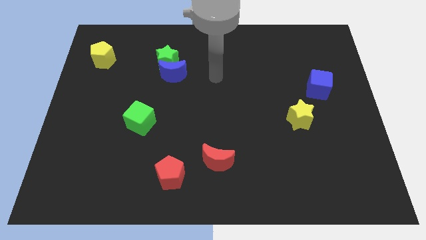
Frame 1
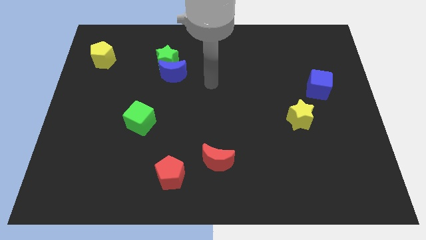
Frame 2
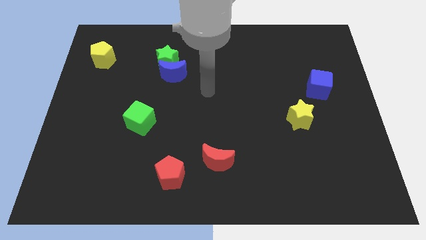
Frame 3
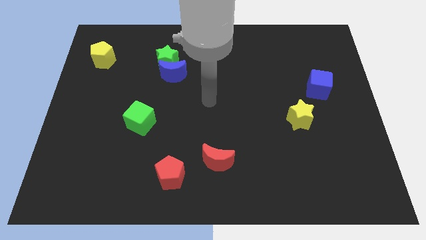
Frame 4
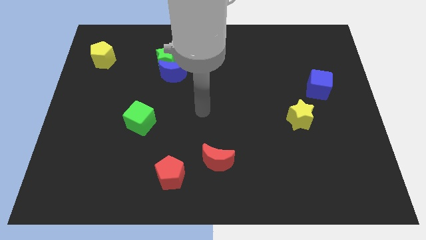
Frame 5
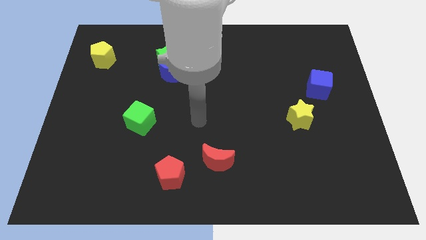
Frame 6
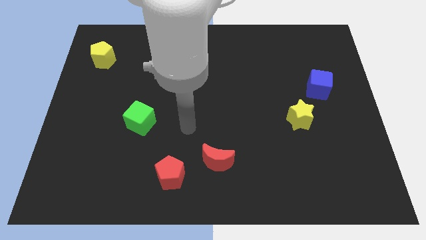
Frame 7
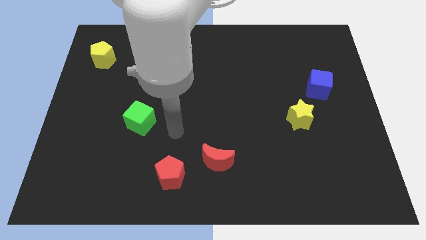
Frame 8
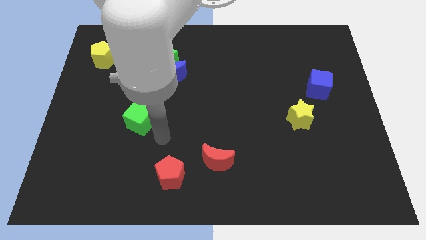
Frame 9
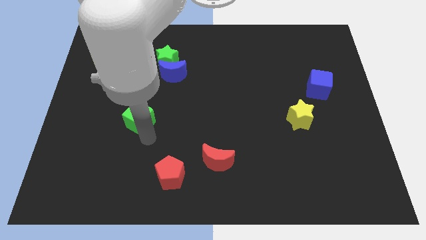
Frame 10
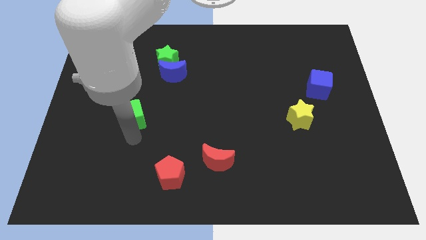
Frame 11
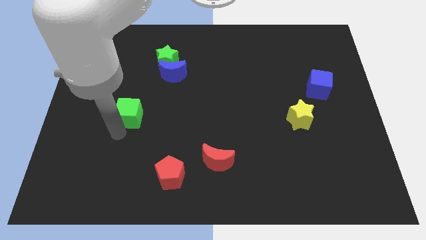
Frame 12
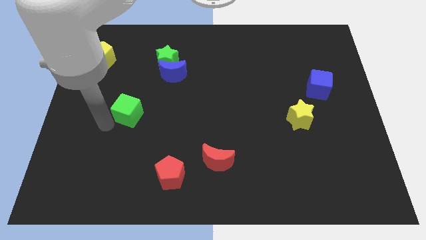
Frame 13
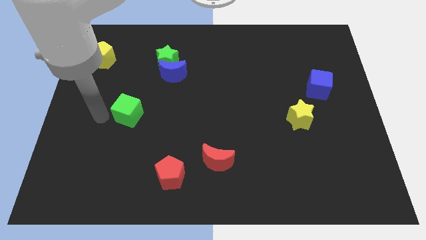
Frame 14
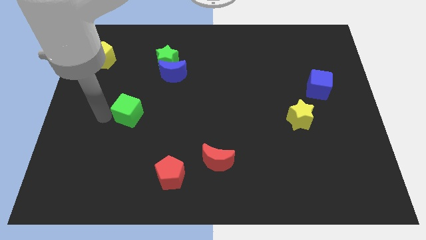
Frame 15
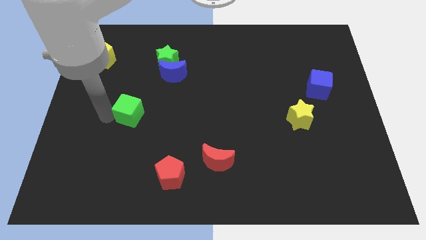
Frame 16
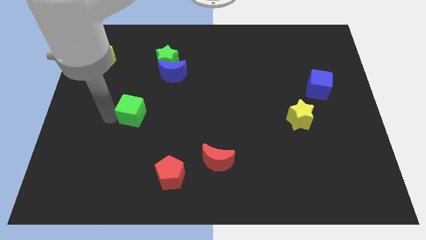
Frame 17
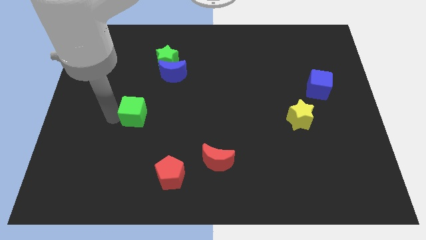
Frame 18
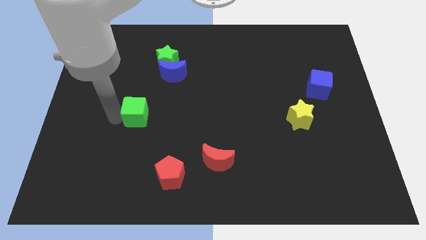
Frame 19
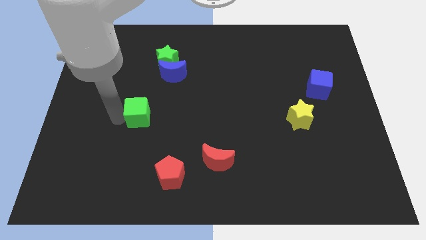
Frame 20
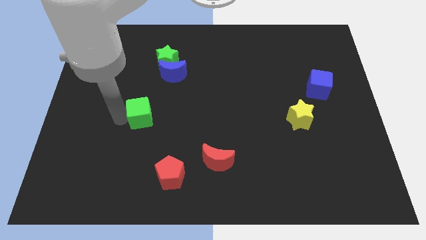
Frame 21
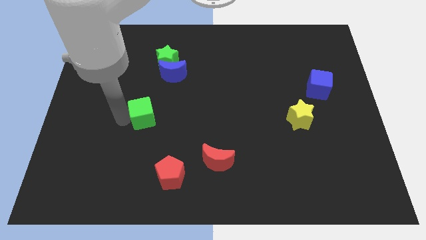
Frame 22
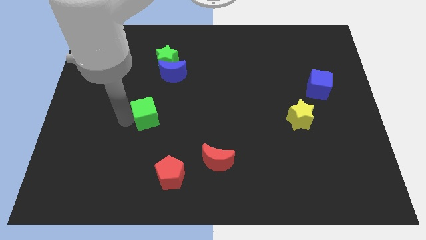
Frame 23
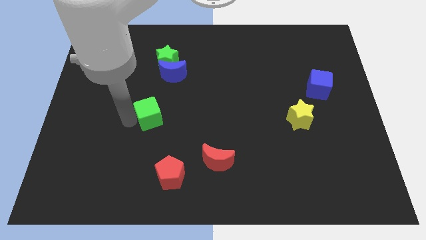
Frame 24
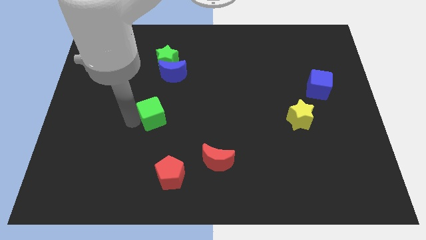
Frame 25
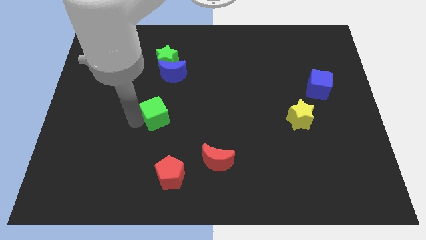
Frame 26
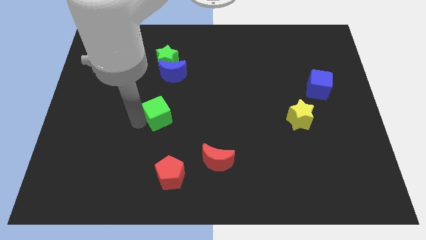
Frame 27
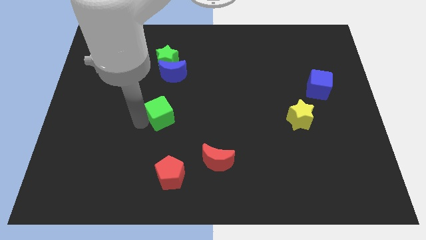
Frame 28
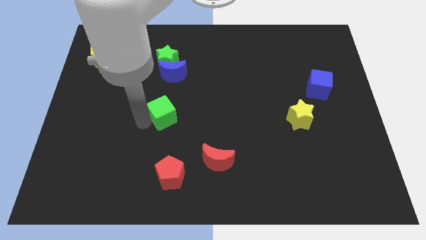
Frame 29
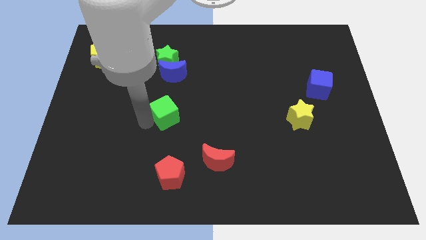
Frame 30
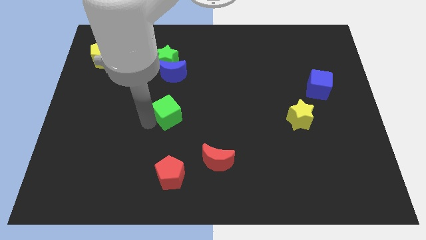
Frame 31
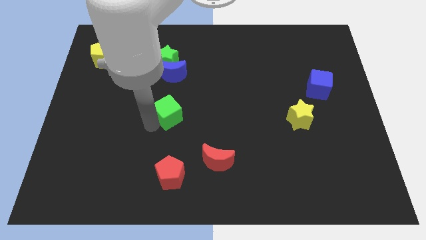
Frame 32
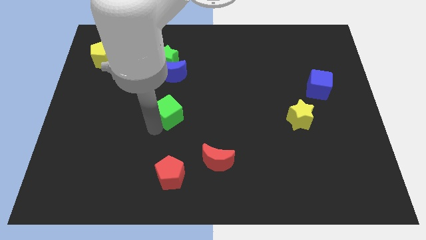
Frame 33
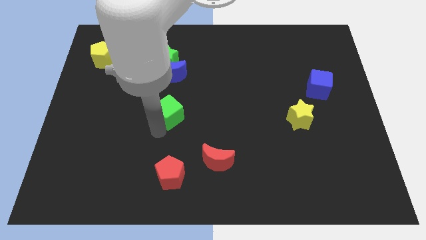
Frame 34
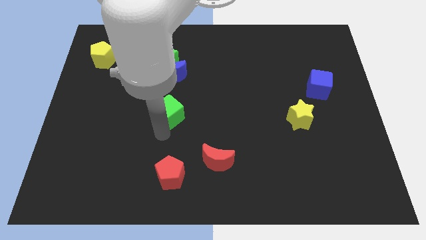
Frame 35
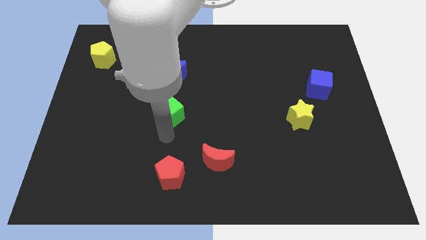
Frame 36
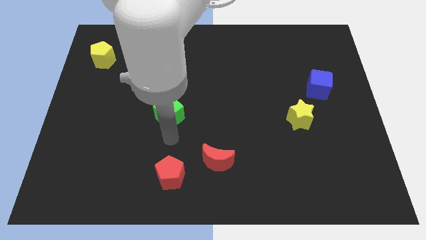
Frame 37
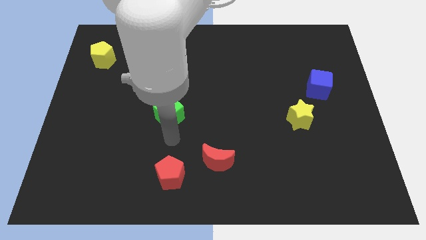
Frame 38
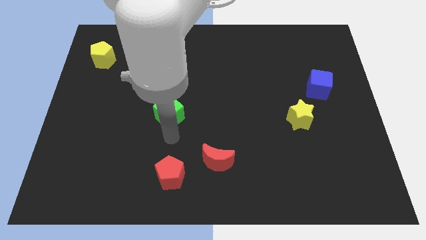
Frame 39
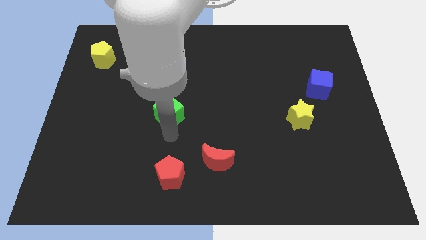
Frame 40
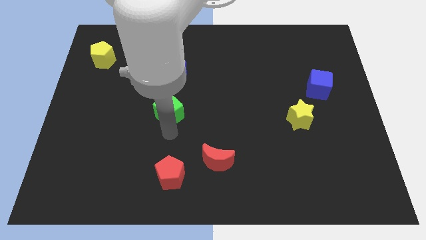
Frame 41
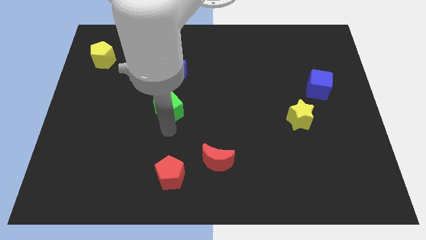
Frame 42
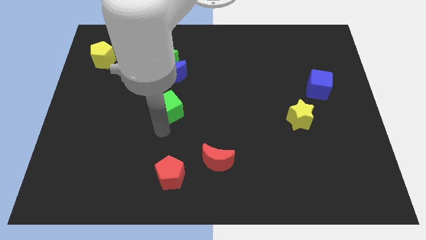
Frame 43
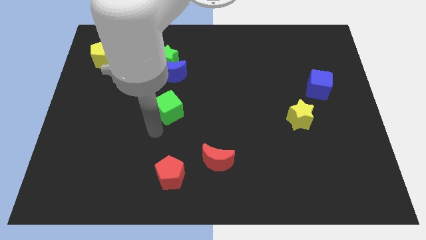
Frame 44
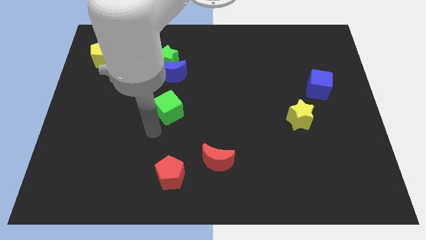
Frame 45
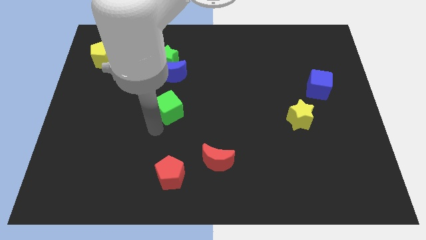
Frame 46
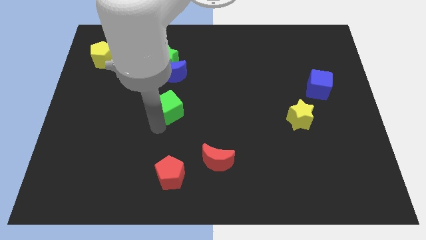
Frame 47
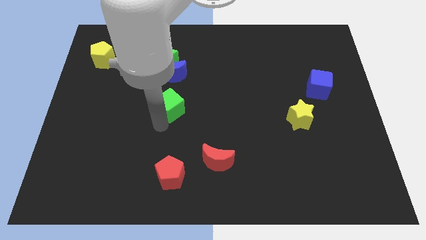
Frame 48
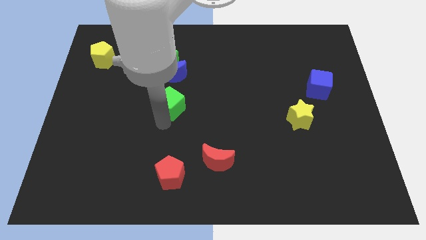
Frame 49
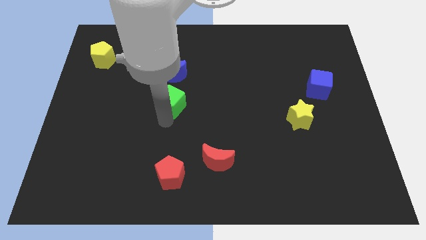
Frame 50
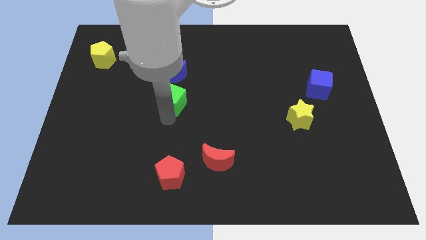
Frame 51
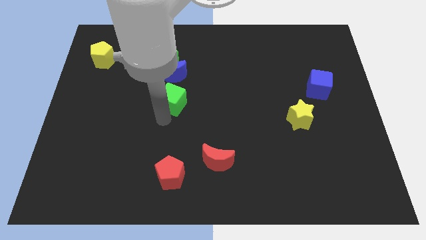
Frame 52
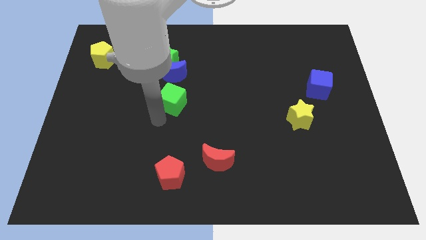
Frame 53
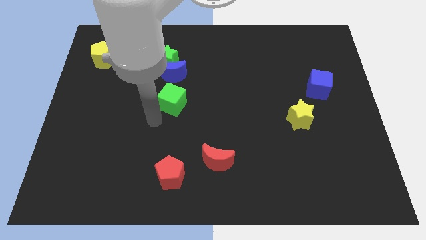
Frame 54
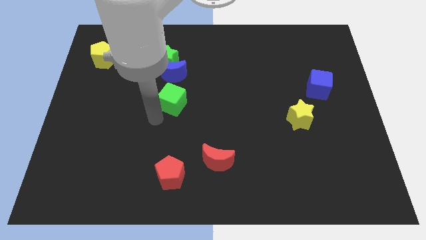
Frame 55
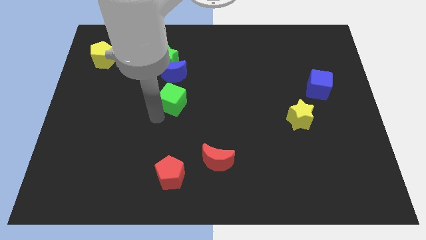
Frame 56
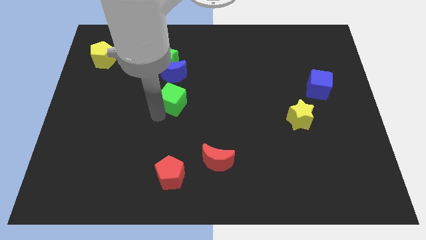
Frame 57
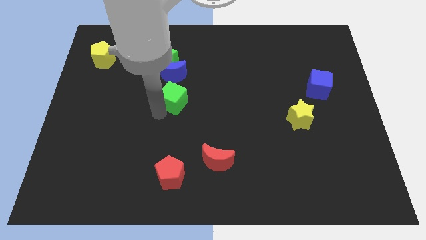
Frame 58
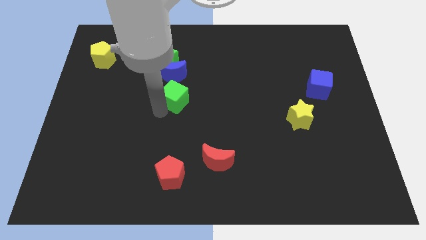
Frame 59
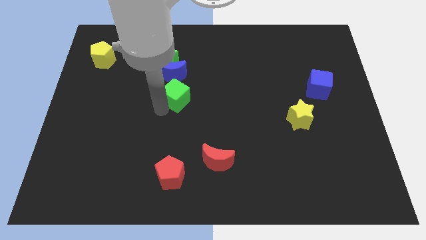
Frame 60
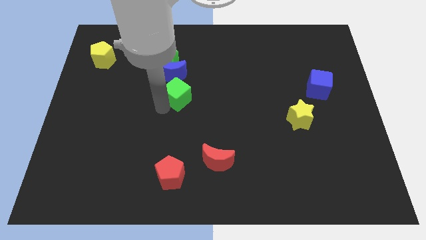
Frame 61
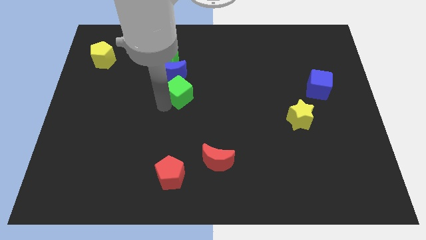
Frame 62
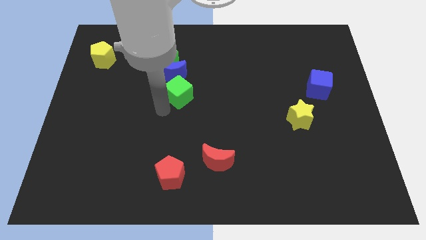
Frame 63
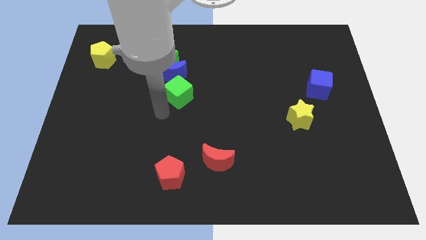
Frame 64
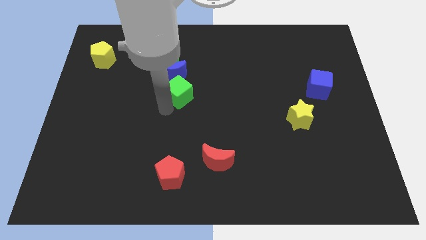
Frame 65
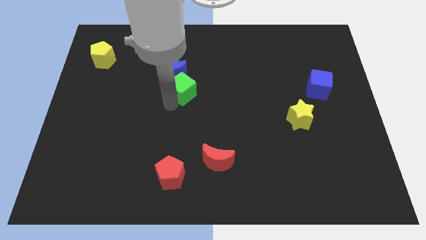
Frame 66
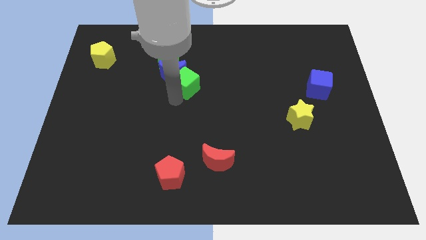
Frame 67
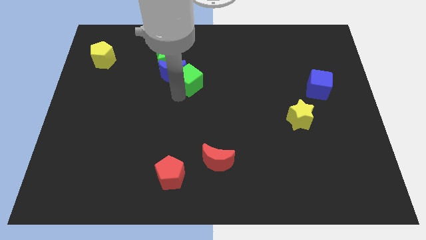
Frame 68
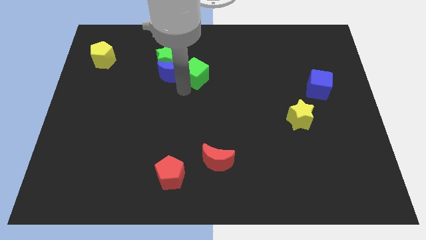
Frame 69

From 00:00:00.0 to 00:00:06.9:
slide the green cube to the right side of the green star
